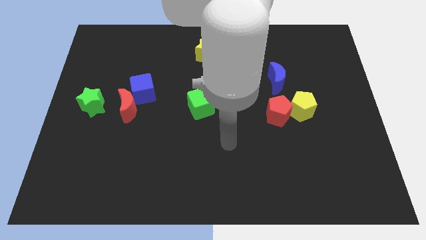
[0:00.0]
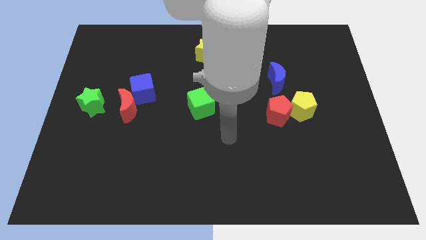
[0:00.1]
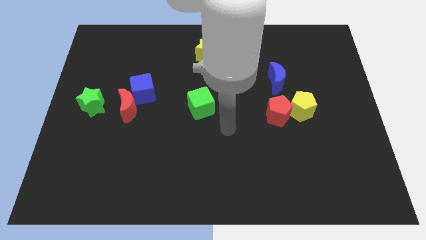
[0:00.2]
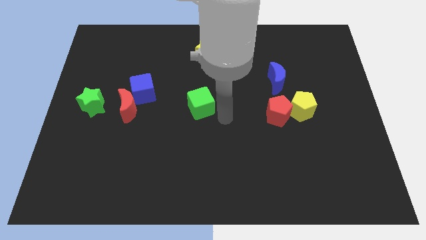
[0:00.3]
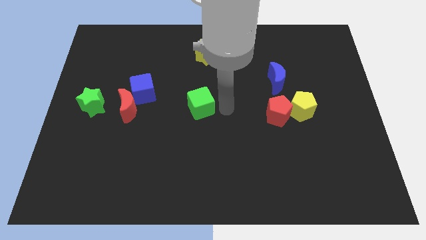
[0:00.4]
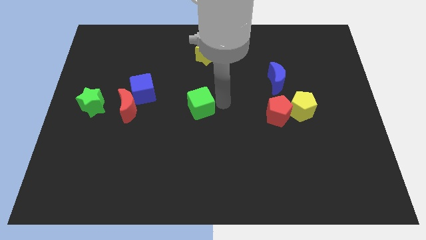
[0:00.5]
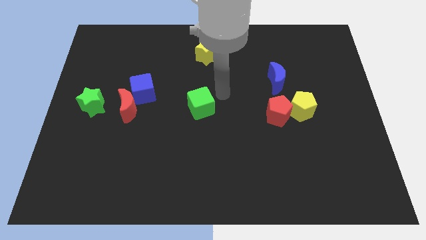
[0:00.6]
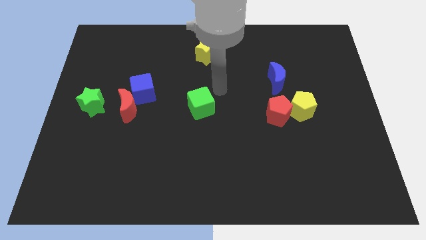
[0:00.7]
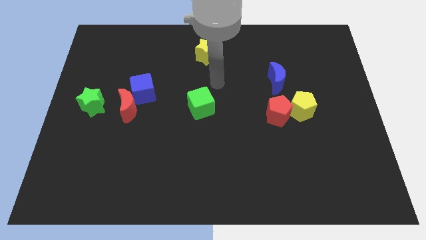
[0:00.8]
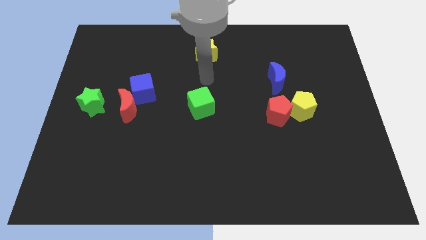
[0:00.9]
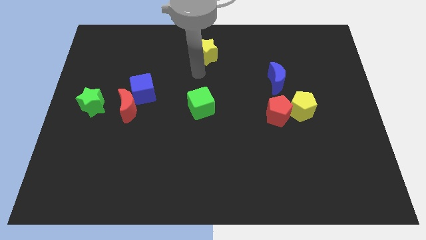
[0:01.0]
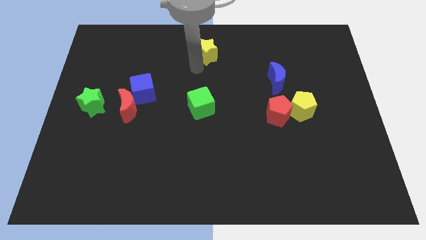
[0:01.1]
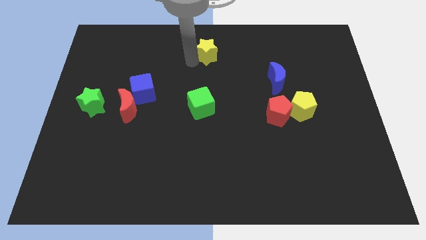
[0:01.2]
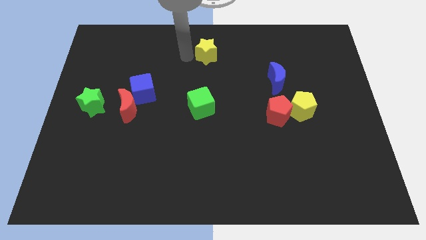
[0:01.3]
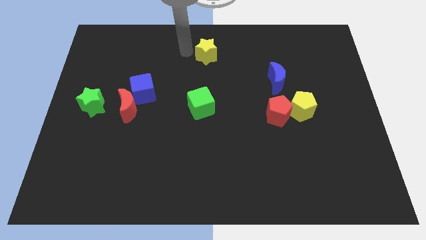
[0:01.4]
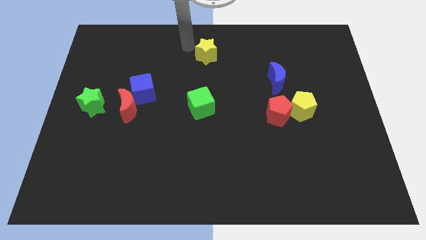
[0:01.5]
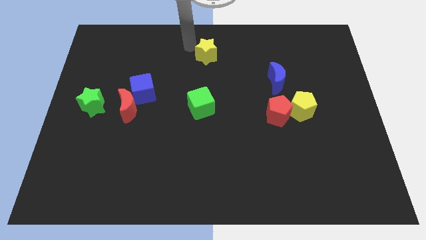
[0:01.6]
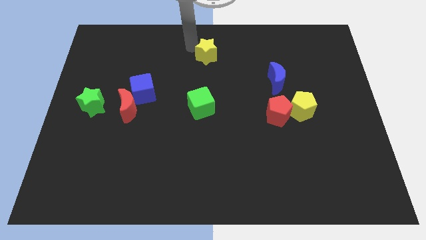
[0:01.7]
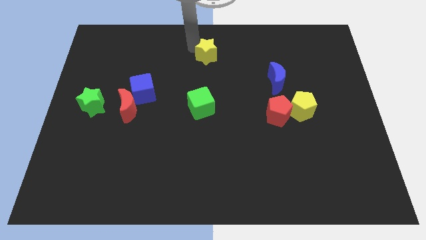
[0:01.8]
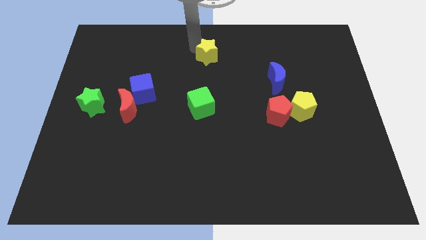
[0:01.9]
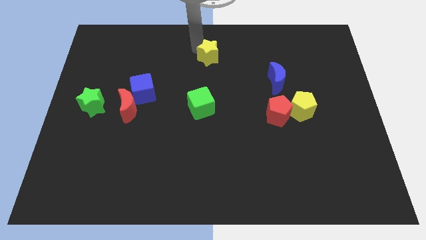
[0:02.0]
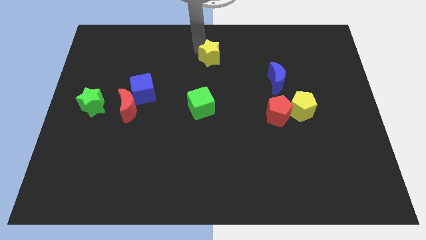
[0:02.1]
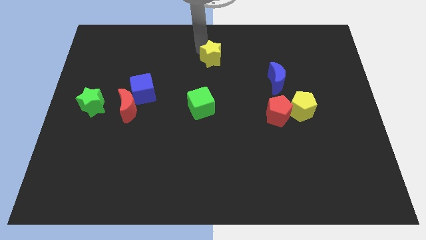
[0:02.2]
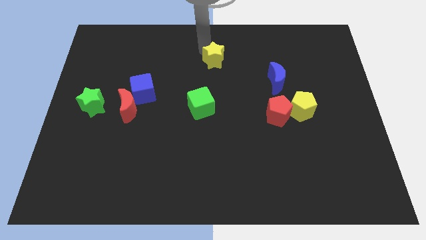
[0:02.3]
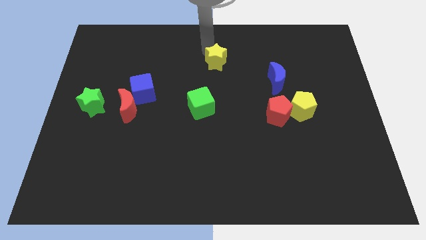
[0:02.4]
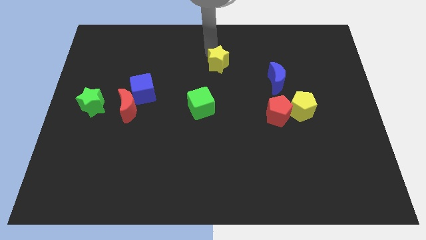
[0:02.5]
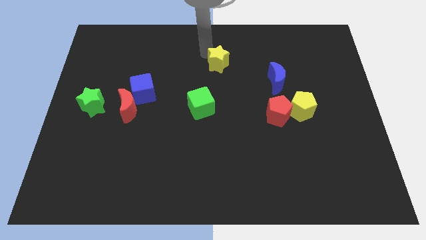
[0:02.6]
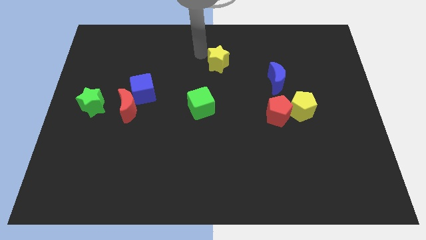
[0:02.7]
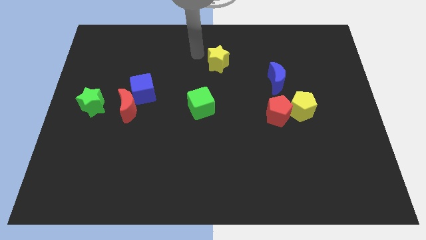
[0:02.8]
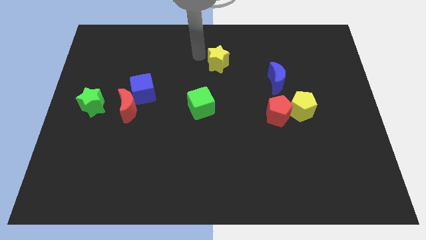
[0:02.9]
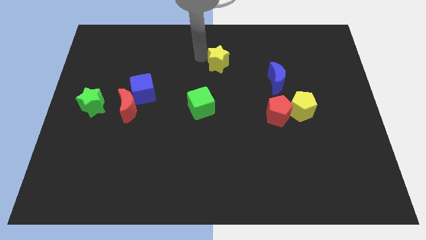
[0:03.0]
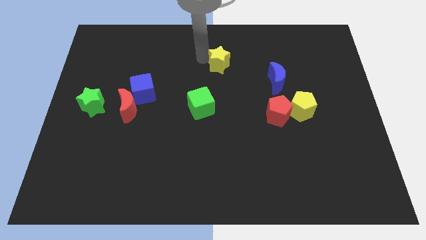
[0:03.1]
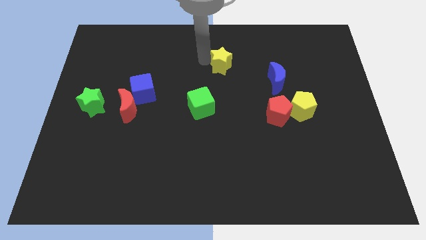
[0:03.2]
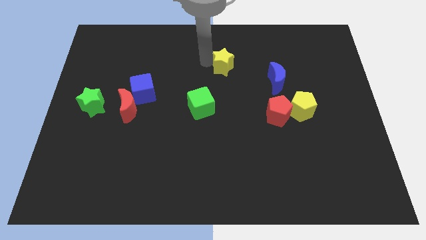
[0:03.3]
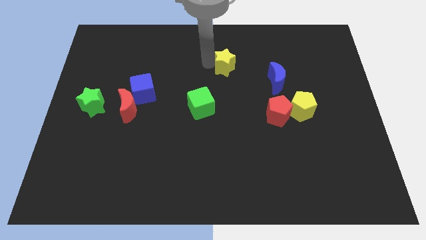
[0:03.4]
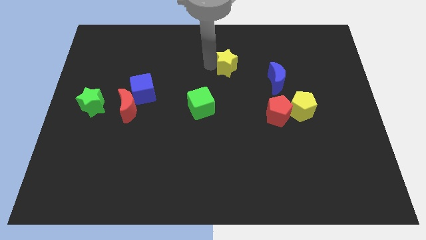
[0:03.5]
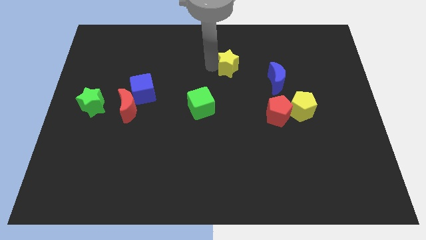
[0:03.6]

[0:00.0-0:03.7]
slightly slide the yellow star downwards and then to the right

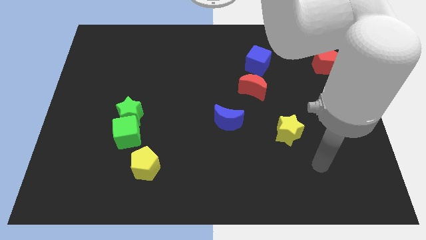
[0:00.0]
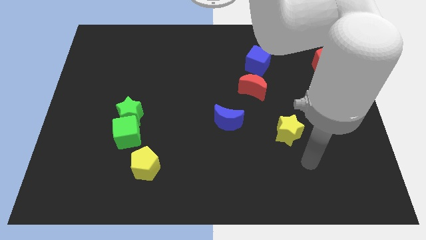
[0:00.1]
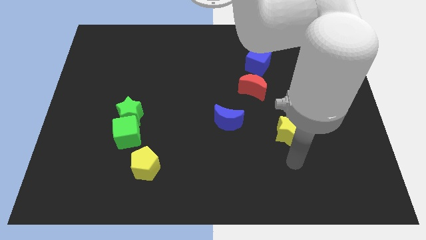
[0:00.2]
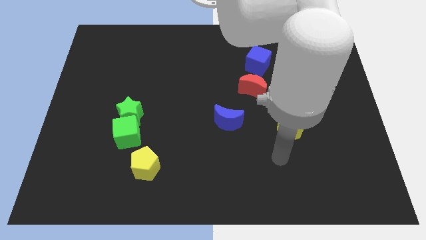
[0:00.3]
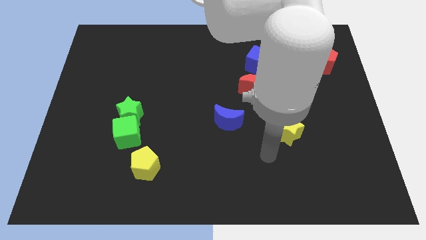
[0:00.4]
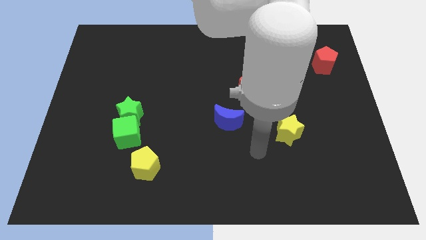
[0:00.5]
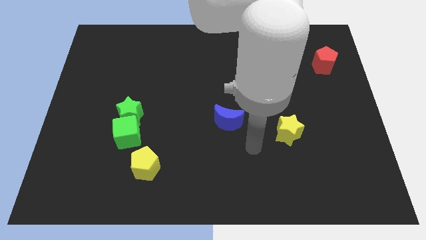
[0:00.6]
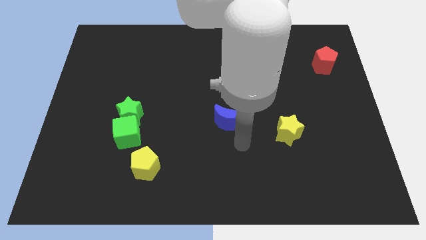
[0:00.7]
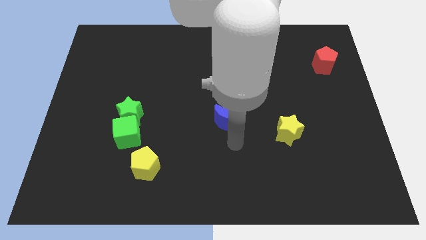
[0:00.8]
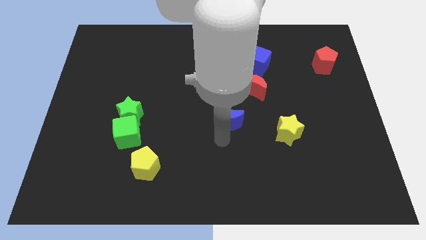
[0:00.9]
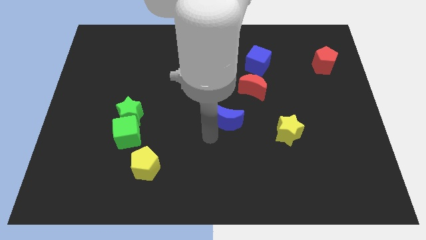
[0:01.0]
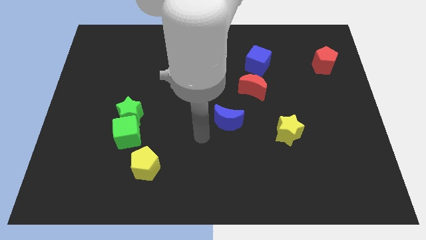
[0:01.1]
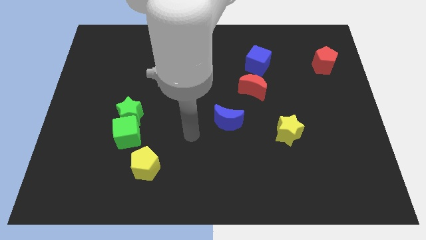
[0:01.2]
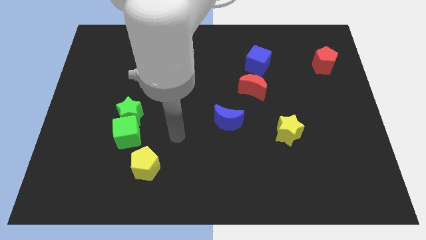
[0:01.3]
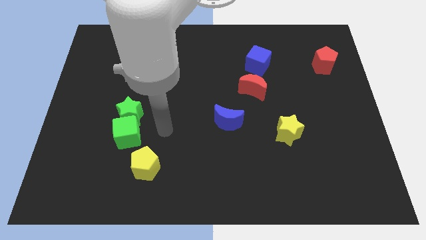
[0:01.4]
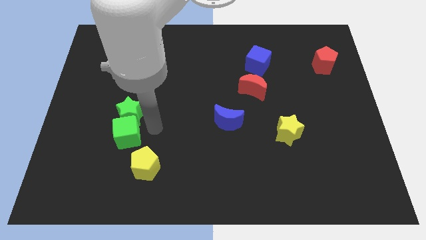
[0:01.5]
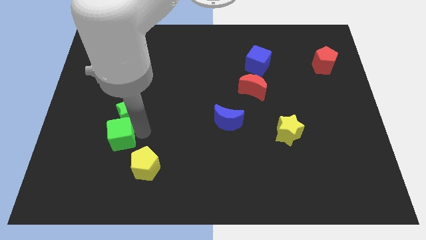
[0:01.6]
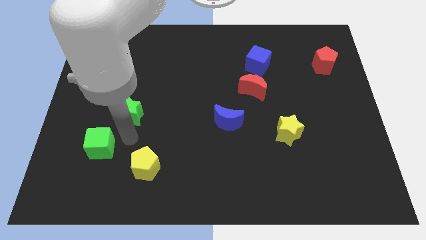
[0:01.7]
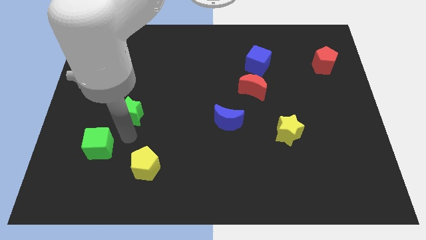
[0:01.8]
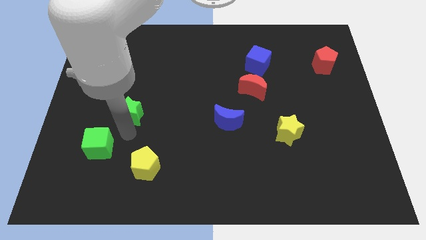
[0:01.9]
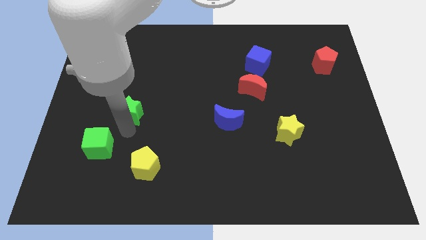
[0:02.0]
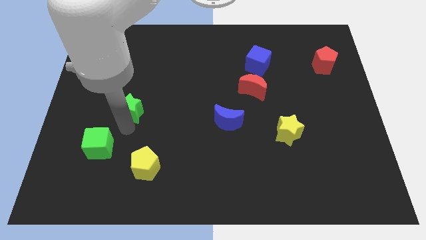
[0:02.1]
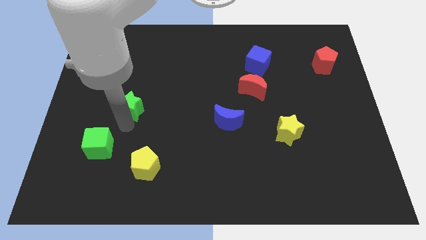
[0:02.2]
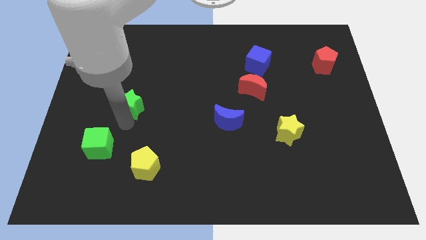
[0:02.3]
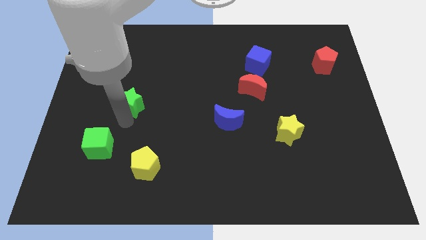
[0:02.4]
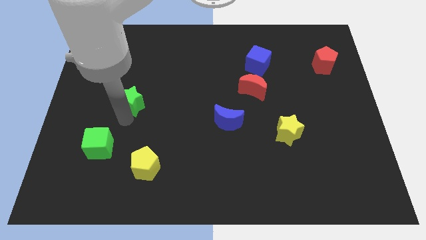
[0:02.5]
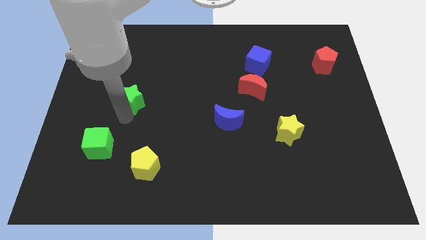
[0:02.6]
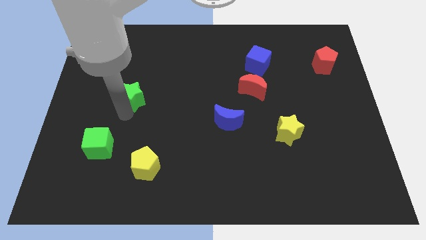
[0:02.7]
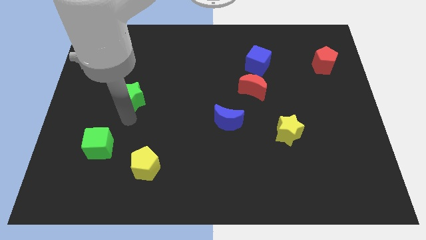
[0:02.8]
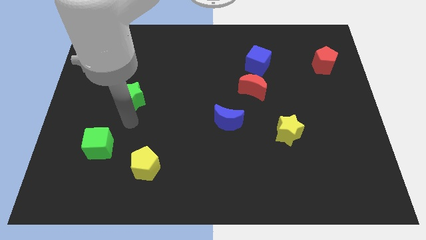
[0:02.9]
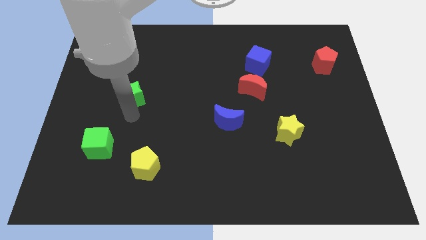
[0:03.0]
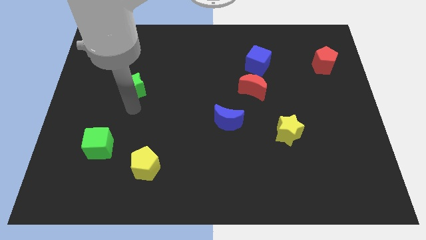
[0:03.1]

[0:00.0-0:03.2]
slightly move the green star upwards

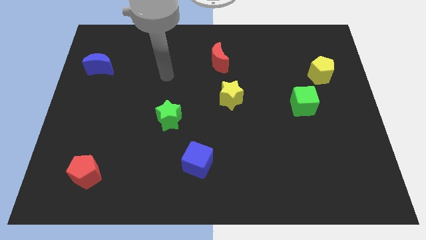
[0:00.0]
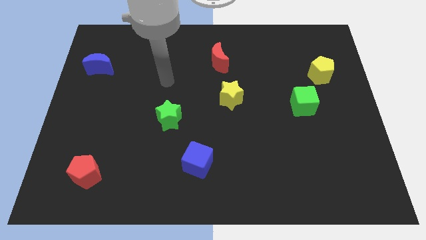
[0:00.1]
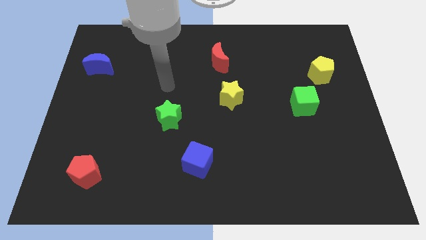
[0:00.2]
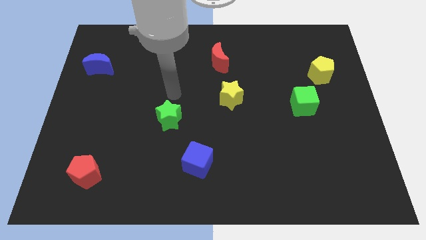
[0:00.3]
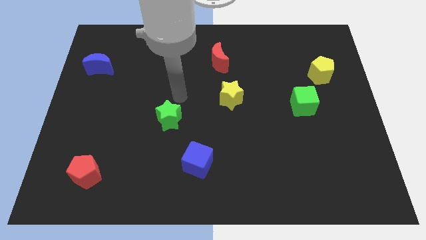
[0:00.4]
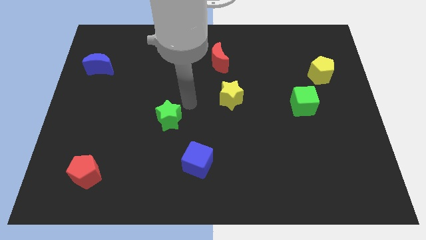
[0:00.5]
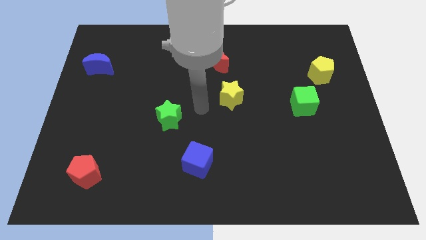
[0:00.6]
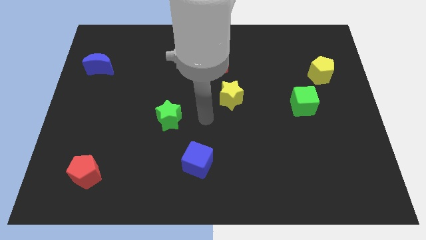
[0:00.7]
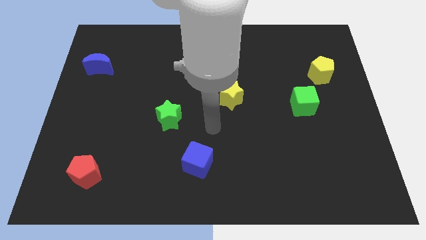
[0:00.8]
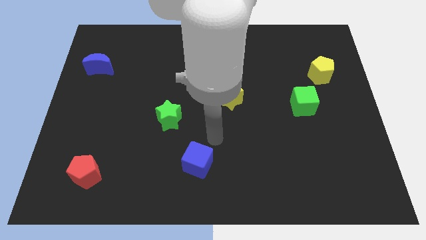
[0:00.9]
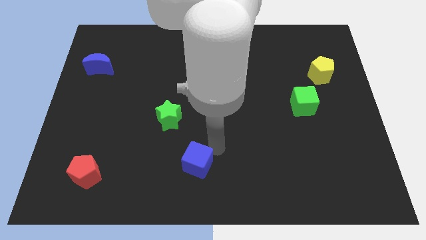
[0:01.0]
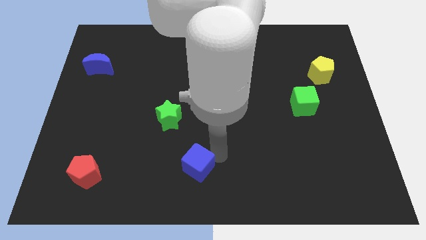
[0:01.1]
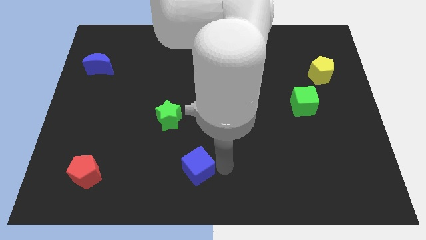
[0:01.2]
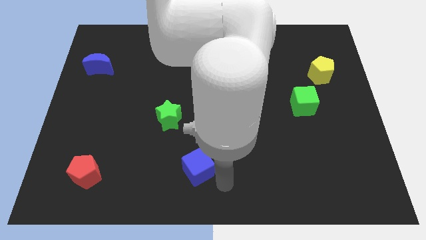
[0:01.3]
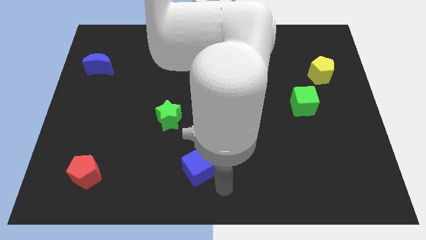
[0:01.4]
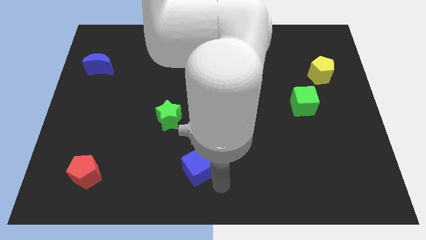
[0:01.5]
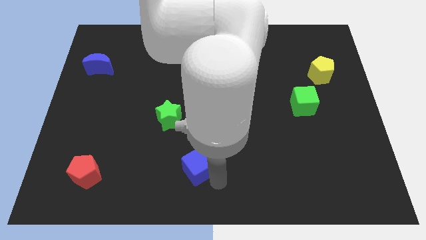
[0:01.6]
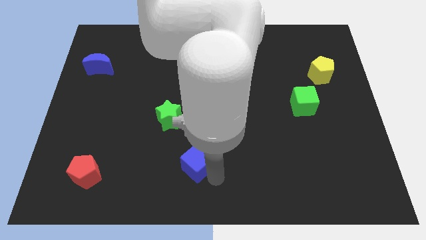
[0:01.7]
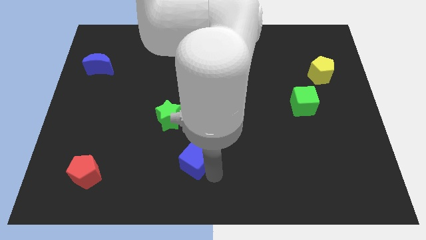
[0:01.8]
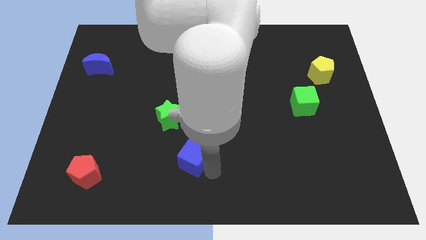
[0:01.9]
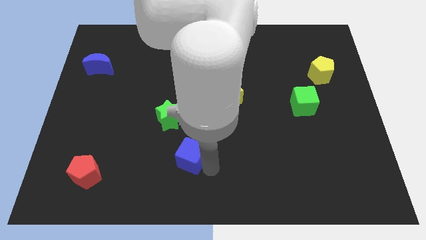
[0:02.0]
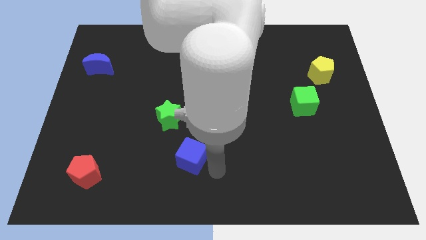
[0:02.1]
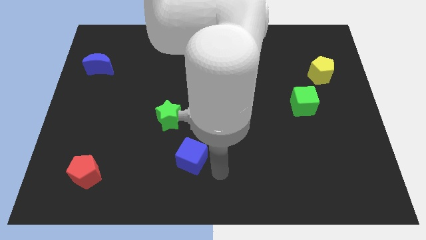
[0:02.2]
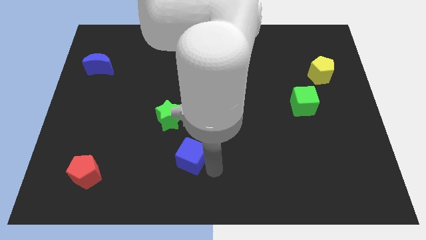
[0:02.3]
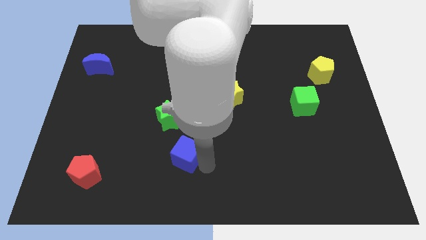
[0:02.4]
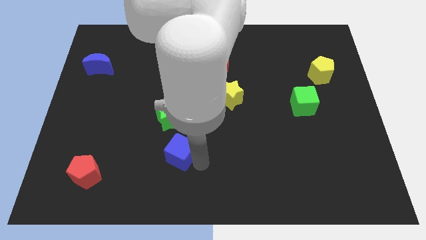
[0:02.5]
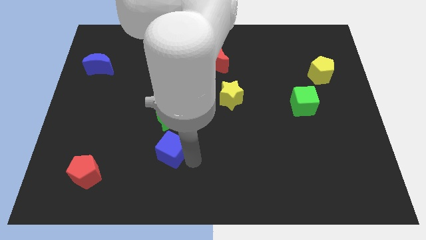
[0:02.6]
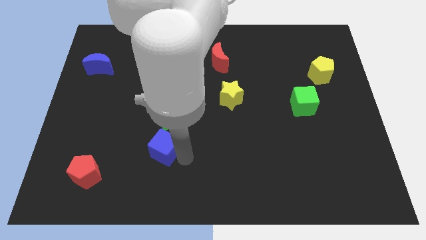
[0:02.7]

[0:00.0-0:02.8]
slide the blue cube diagonally up and to the left a little bit
